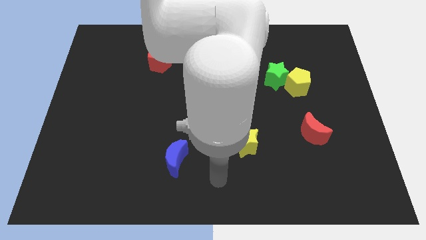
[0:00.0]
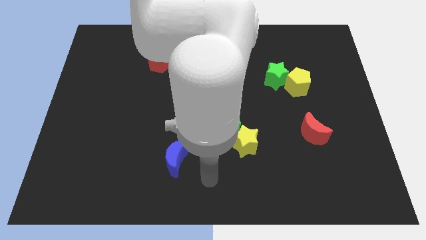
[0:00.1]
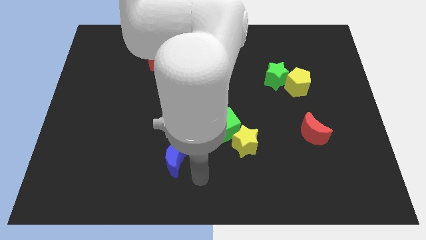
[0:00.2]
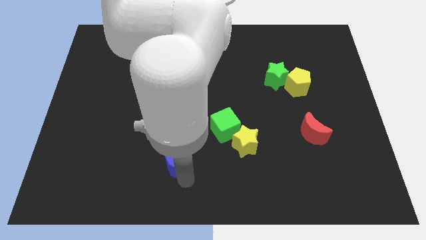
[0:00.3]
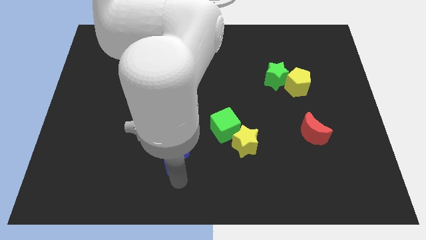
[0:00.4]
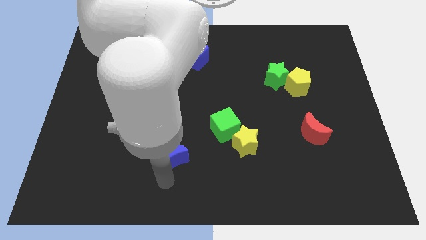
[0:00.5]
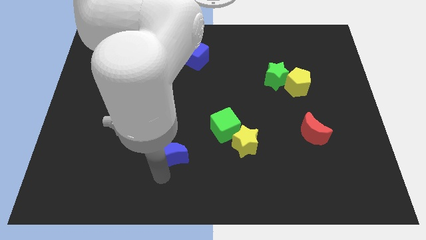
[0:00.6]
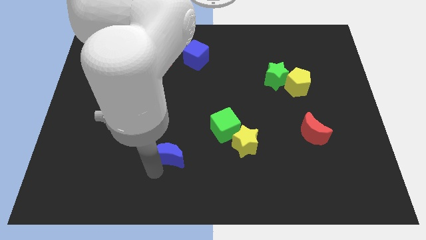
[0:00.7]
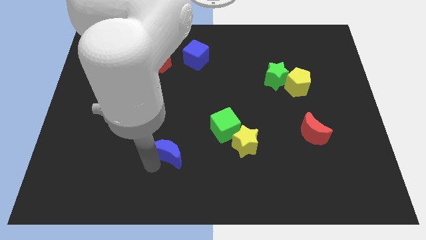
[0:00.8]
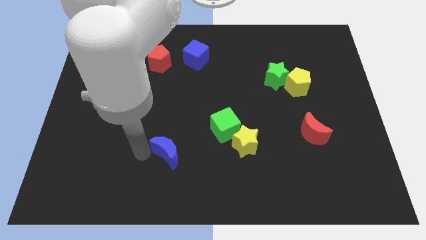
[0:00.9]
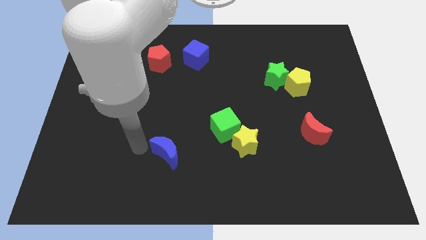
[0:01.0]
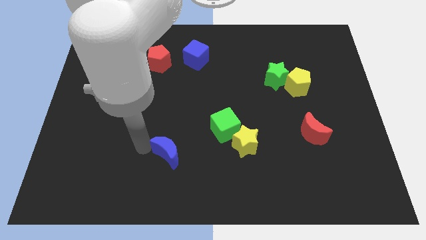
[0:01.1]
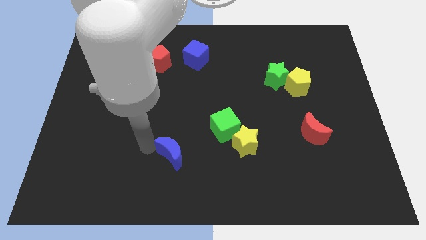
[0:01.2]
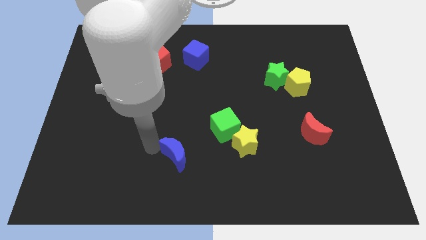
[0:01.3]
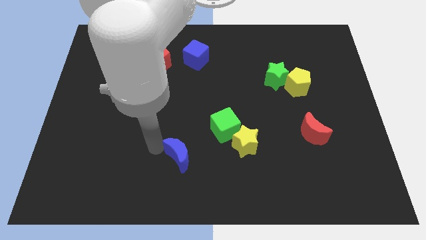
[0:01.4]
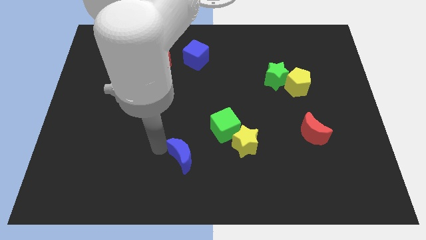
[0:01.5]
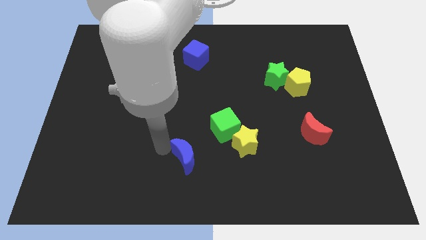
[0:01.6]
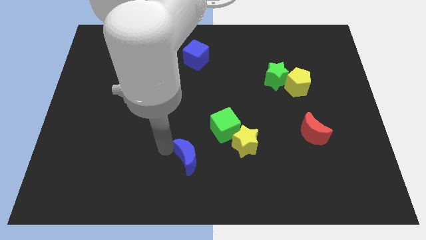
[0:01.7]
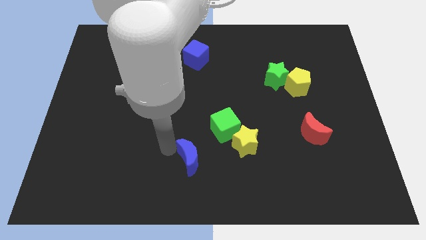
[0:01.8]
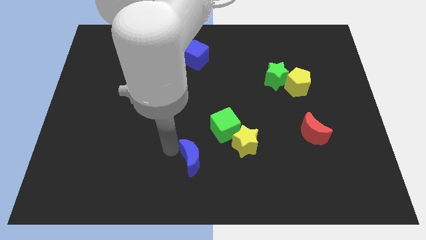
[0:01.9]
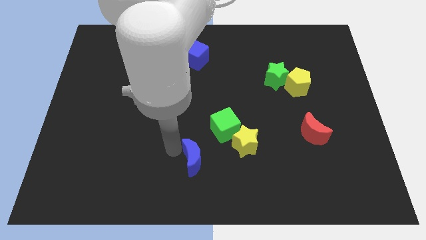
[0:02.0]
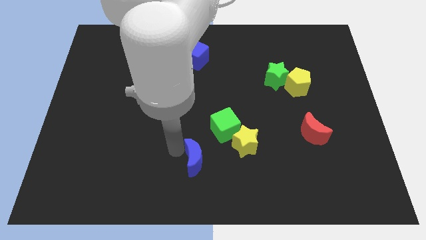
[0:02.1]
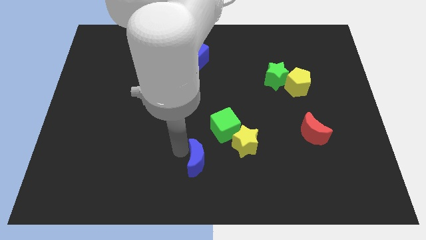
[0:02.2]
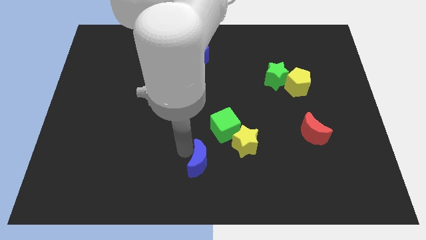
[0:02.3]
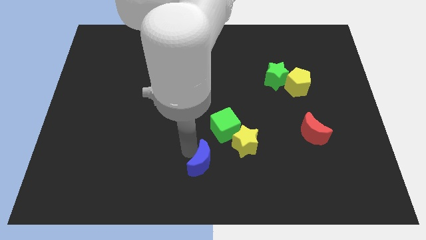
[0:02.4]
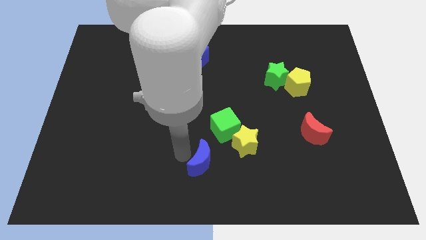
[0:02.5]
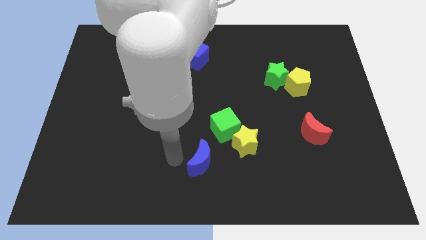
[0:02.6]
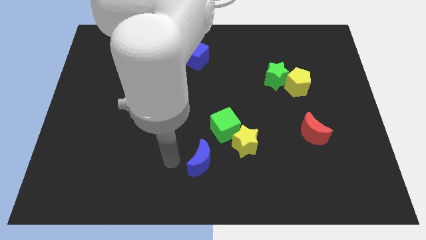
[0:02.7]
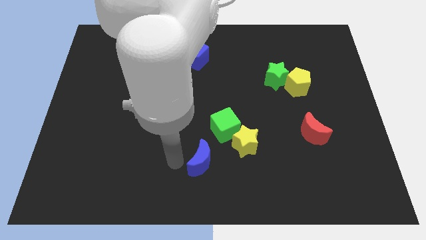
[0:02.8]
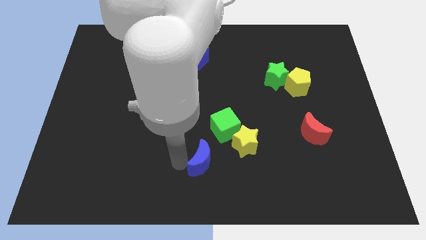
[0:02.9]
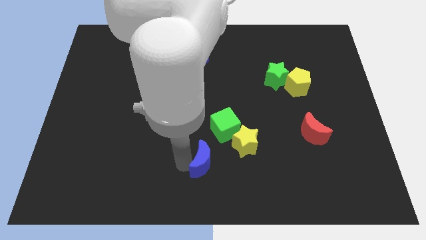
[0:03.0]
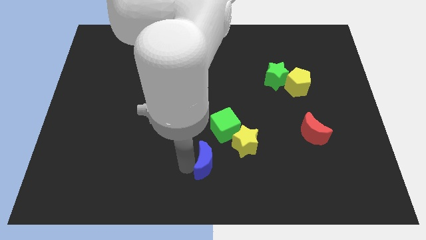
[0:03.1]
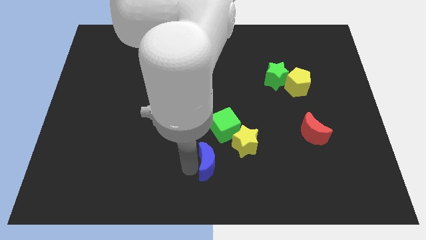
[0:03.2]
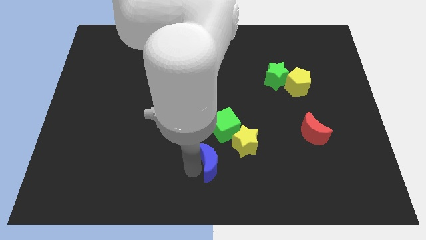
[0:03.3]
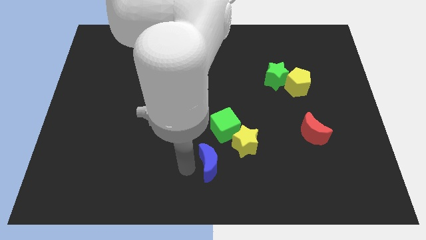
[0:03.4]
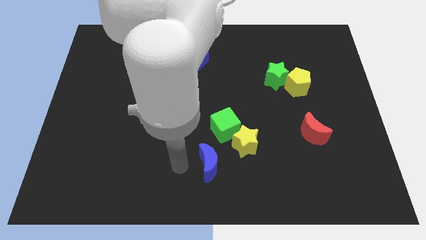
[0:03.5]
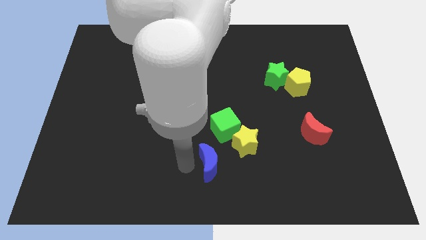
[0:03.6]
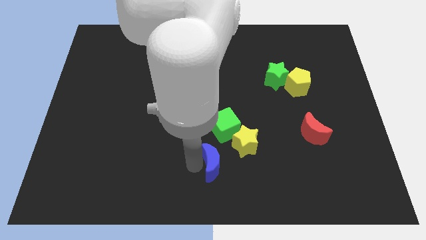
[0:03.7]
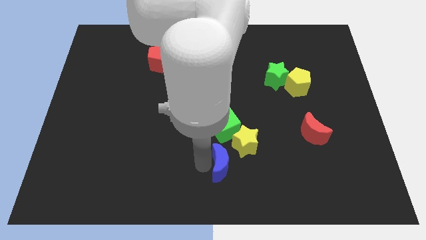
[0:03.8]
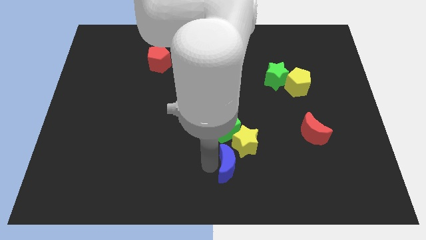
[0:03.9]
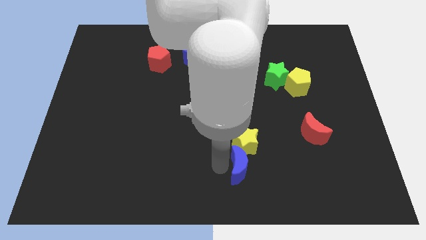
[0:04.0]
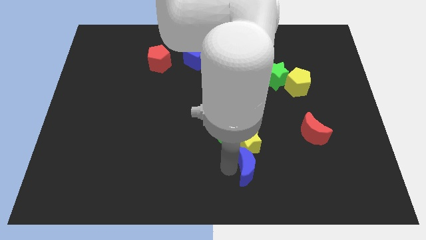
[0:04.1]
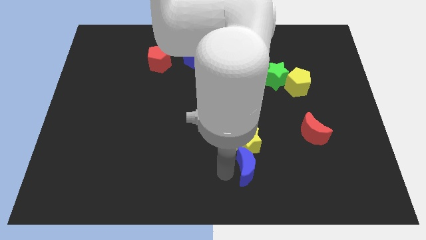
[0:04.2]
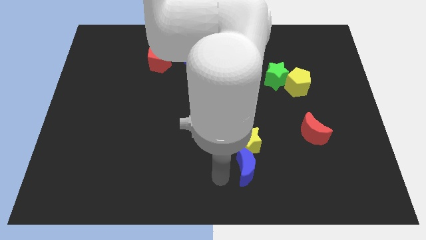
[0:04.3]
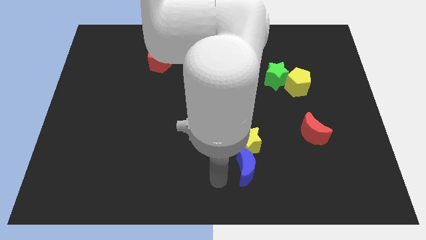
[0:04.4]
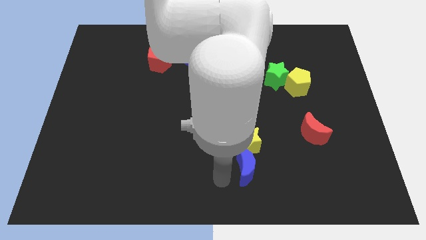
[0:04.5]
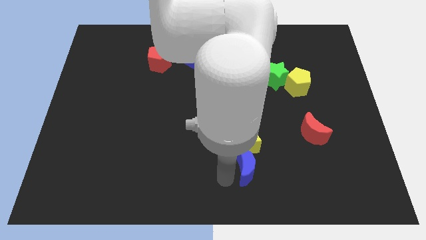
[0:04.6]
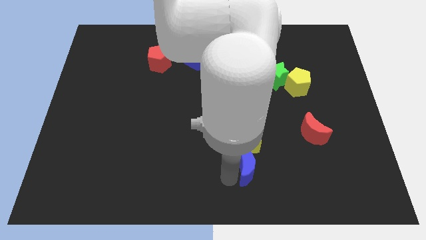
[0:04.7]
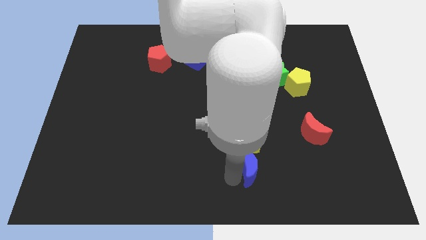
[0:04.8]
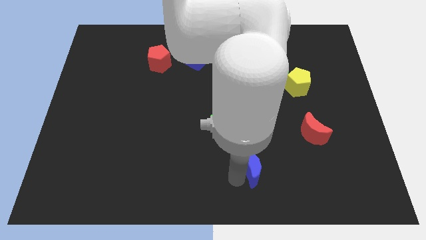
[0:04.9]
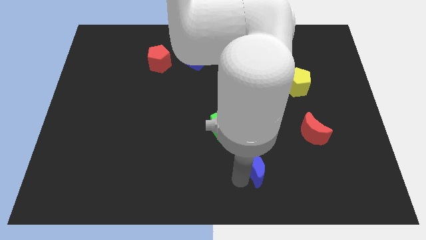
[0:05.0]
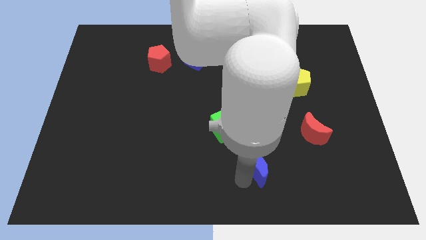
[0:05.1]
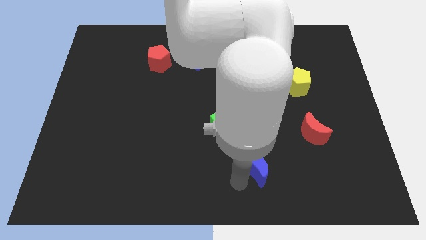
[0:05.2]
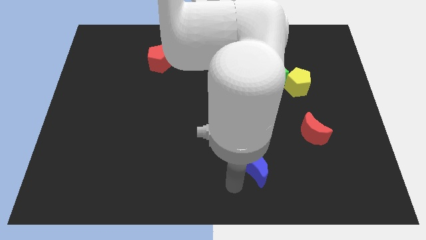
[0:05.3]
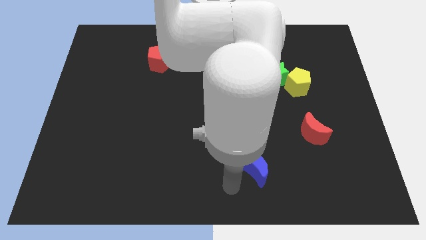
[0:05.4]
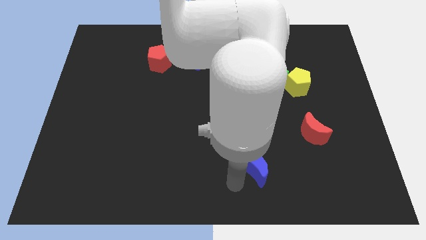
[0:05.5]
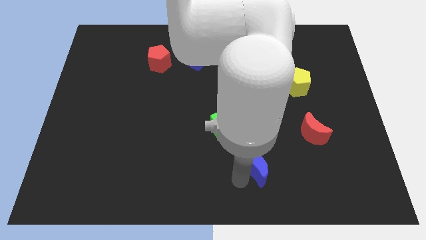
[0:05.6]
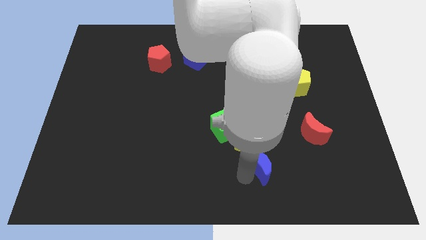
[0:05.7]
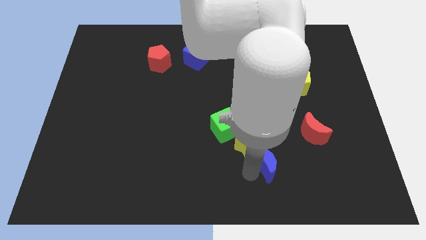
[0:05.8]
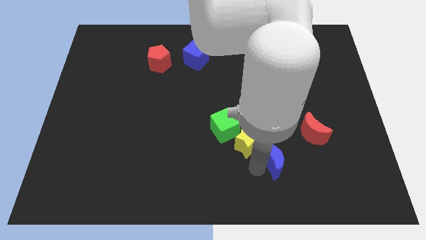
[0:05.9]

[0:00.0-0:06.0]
put the blue moon diagonally down and to the left of the red moon

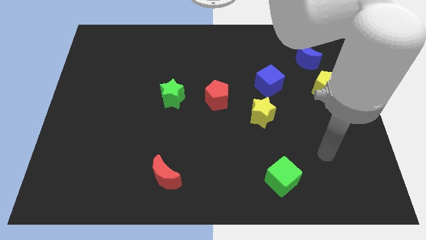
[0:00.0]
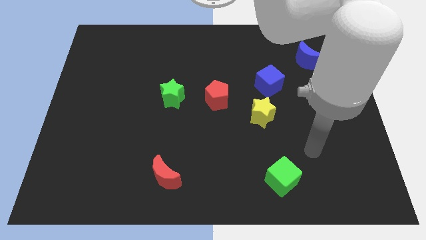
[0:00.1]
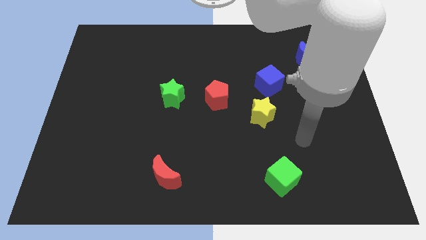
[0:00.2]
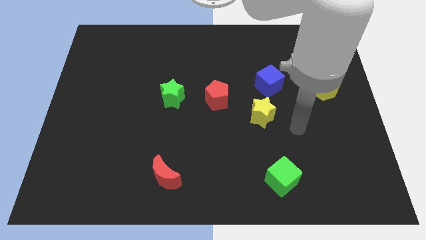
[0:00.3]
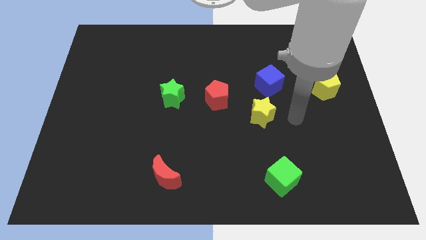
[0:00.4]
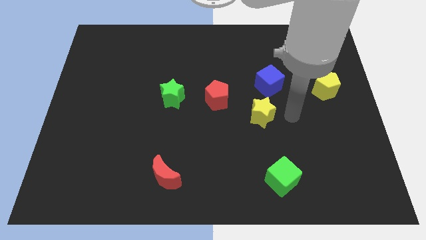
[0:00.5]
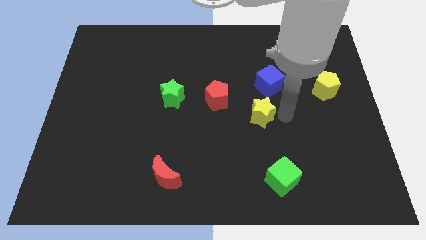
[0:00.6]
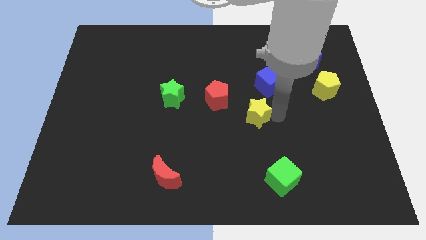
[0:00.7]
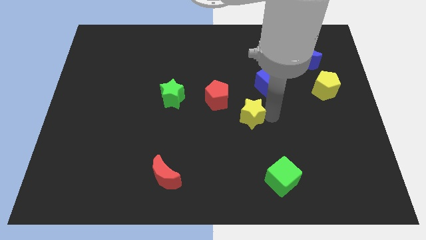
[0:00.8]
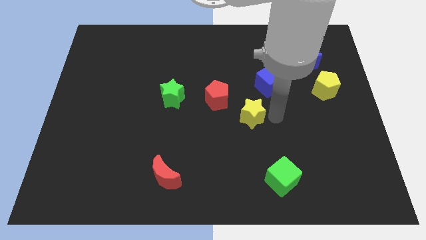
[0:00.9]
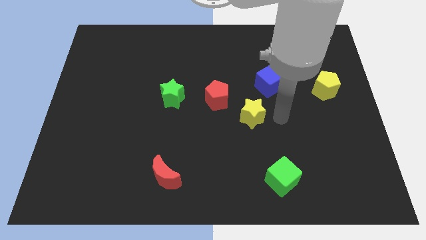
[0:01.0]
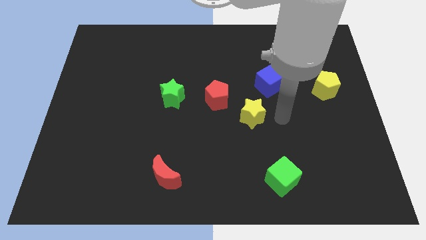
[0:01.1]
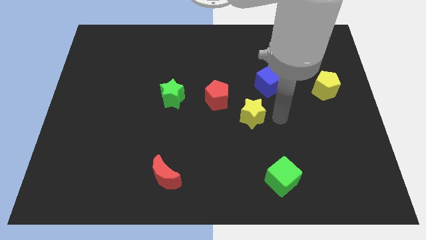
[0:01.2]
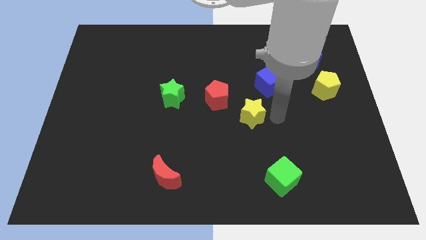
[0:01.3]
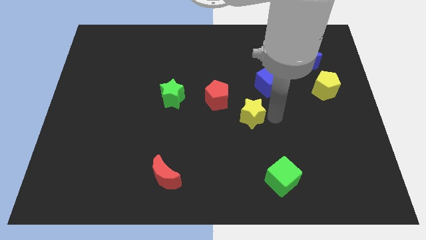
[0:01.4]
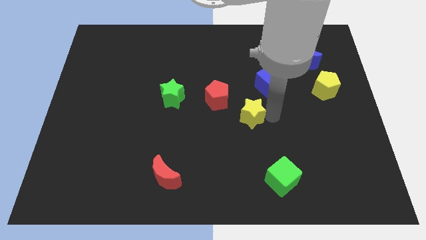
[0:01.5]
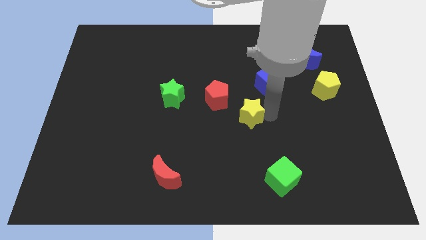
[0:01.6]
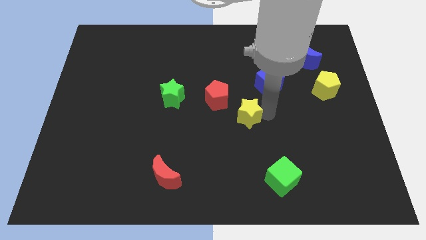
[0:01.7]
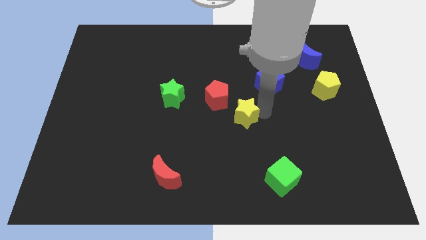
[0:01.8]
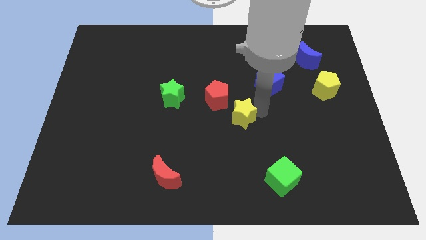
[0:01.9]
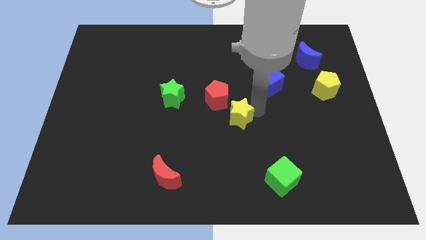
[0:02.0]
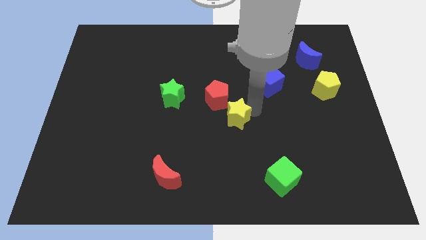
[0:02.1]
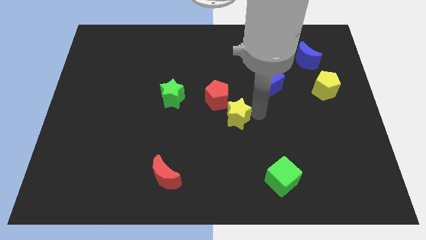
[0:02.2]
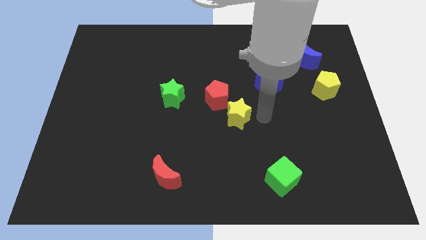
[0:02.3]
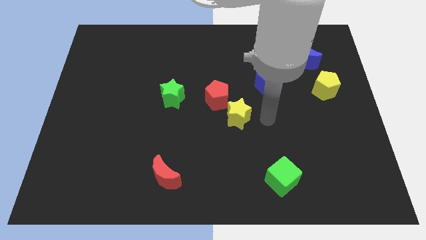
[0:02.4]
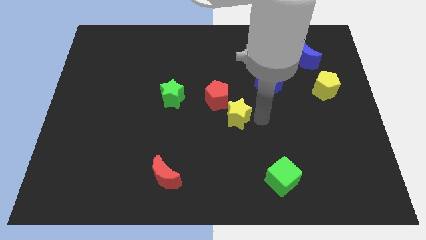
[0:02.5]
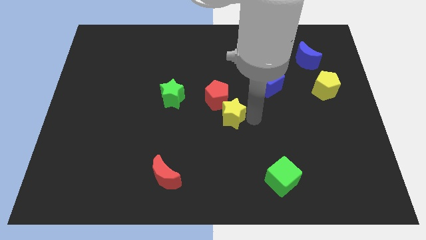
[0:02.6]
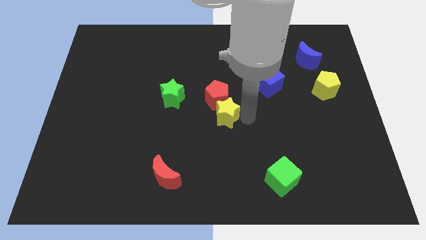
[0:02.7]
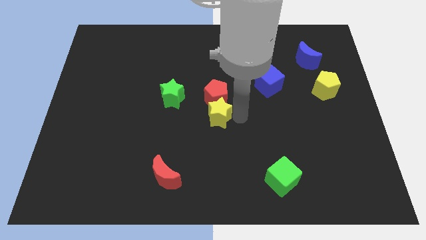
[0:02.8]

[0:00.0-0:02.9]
put the yellow star to the bottom left side of the red pentagon
